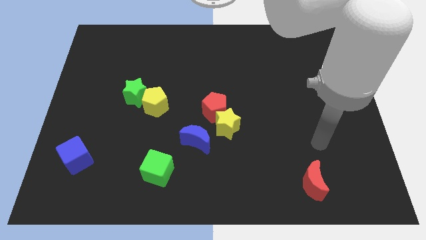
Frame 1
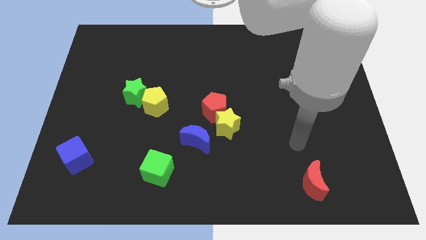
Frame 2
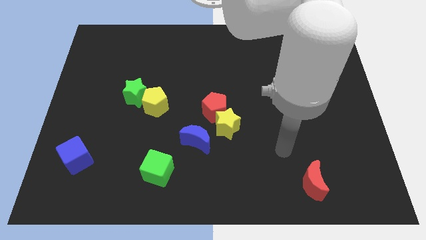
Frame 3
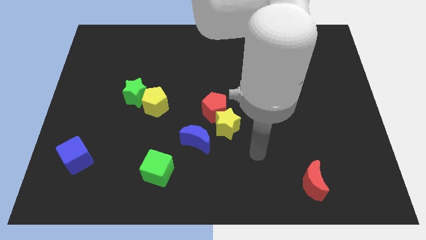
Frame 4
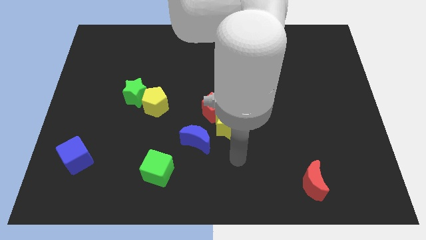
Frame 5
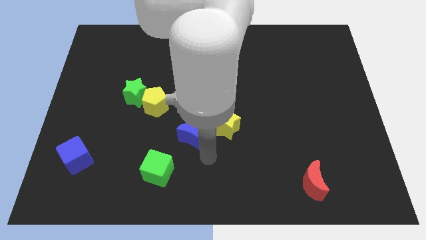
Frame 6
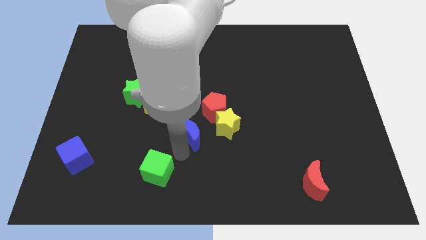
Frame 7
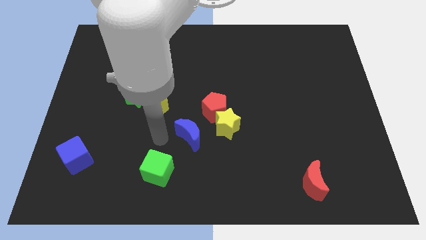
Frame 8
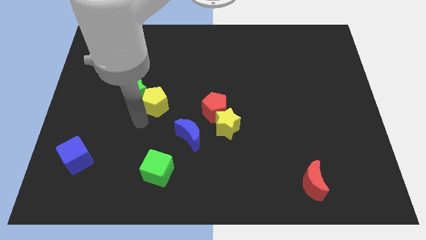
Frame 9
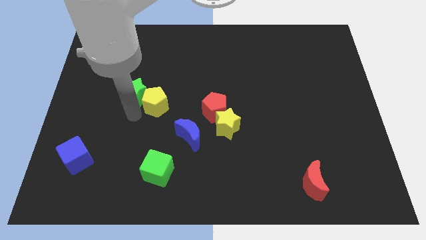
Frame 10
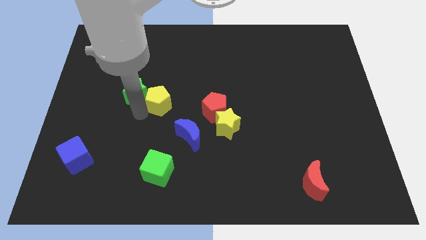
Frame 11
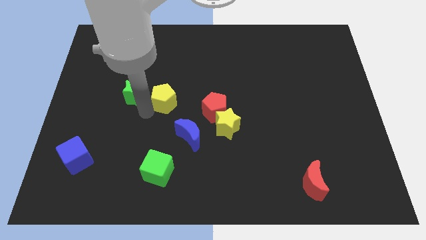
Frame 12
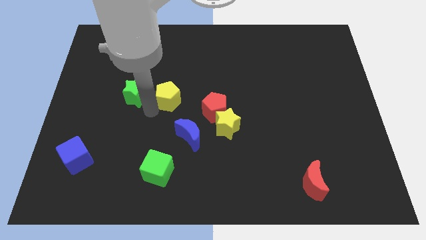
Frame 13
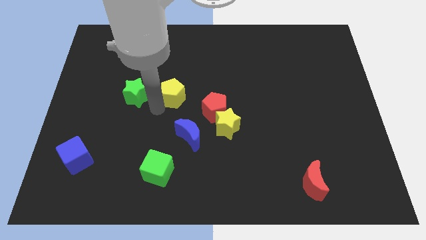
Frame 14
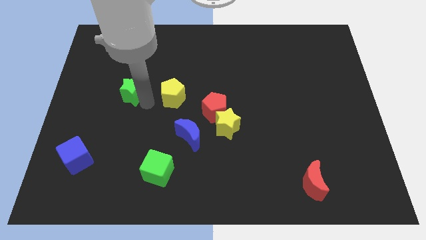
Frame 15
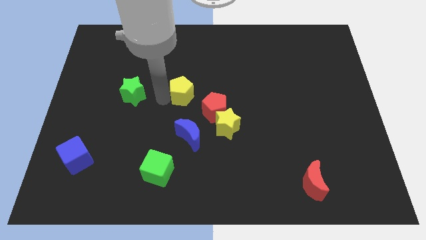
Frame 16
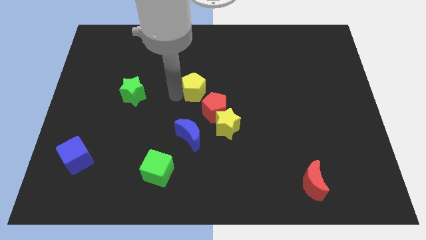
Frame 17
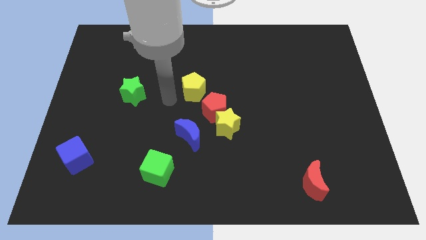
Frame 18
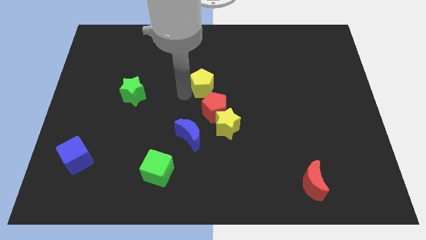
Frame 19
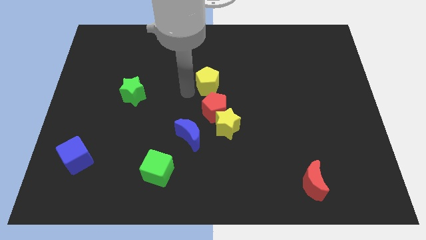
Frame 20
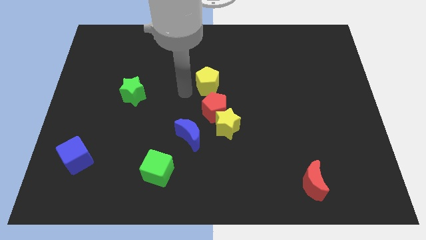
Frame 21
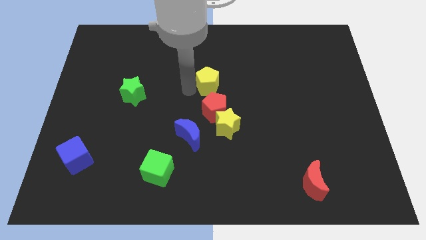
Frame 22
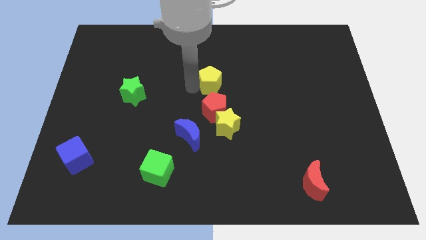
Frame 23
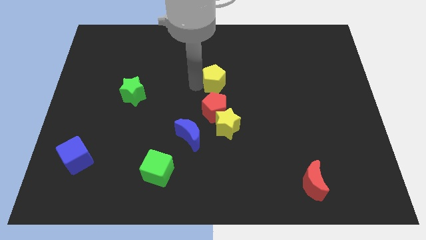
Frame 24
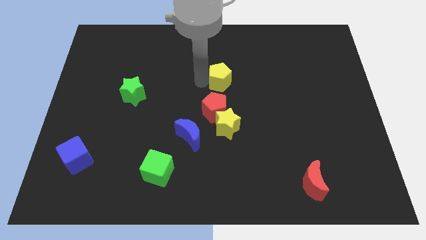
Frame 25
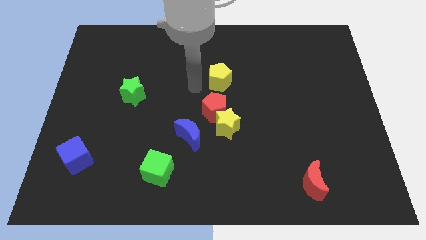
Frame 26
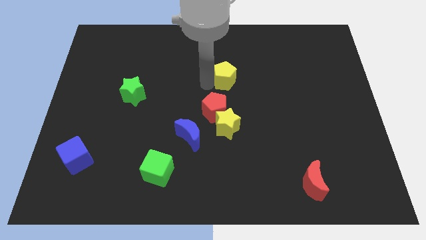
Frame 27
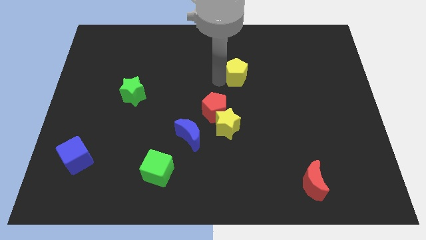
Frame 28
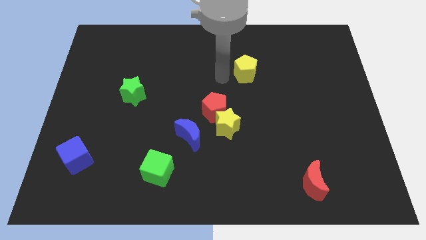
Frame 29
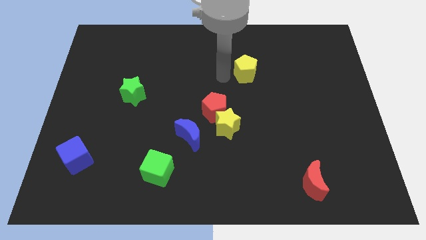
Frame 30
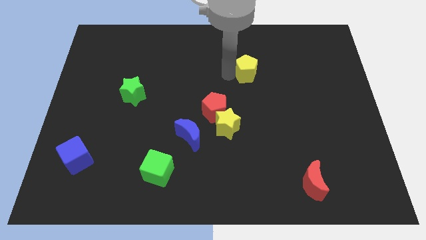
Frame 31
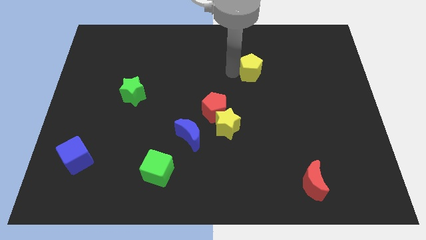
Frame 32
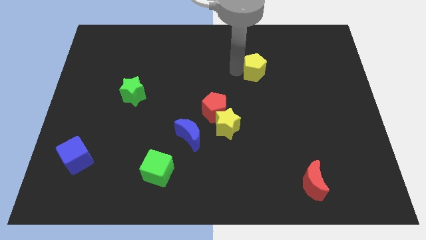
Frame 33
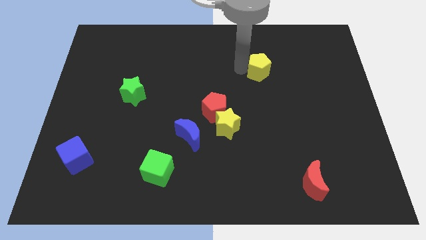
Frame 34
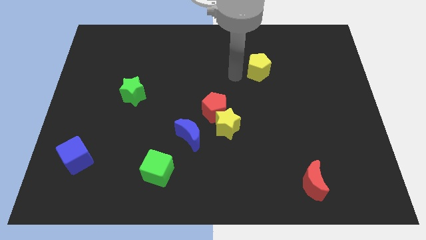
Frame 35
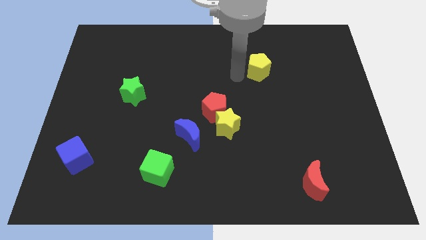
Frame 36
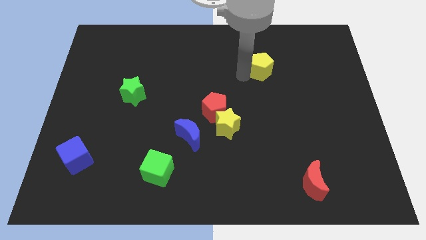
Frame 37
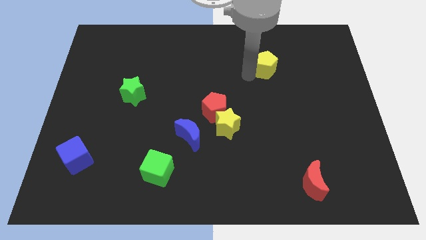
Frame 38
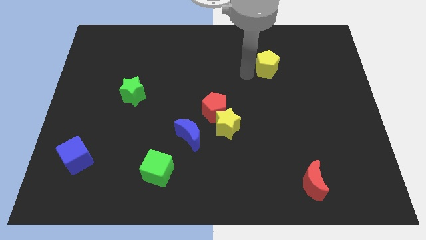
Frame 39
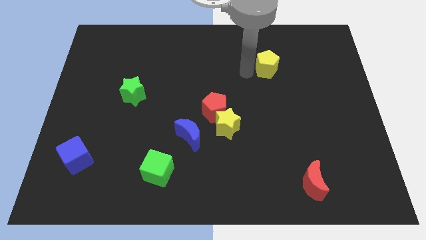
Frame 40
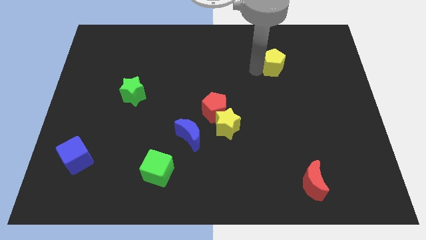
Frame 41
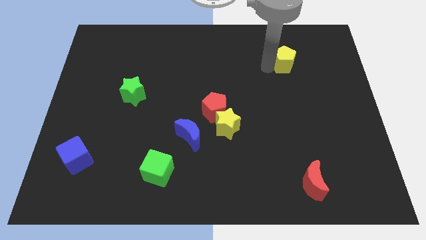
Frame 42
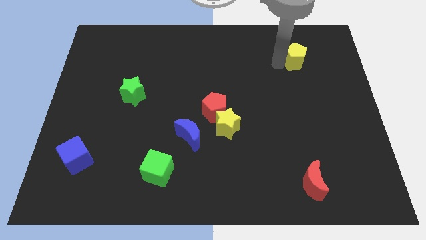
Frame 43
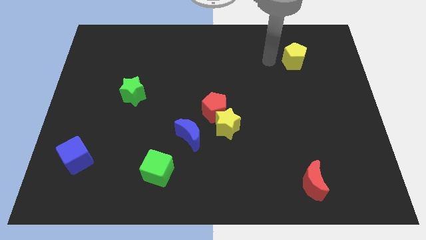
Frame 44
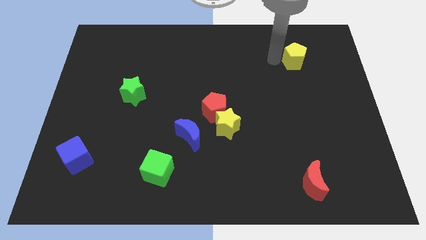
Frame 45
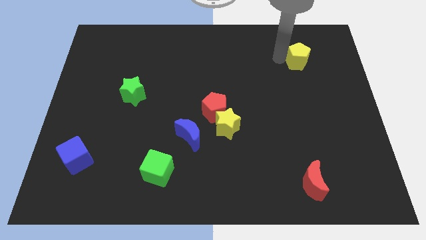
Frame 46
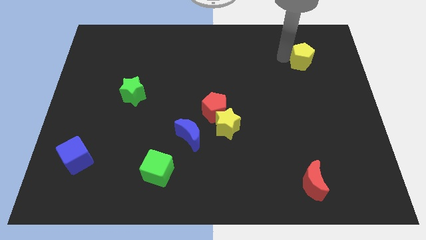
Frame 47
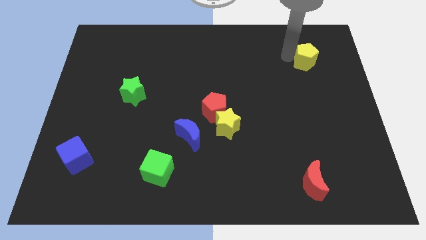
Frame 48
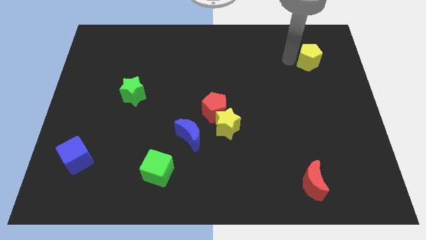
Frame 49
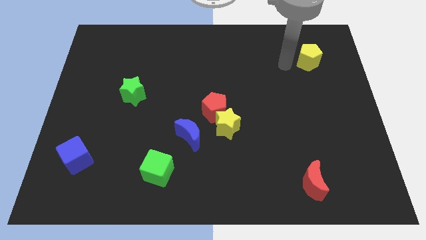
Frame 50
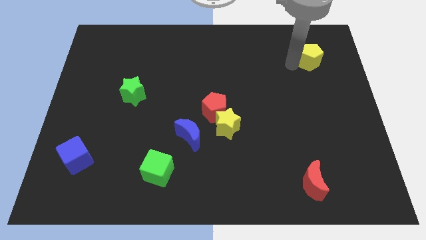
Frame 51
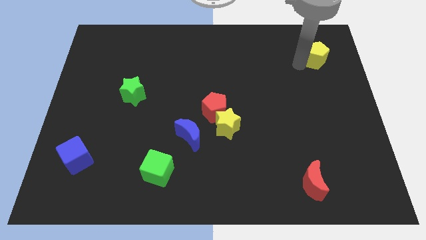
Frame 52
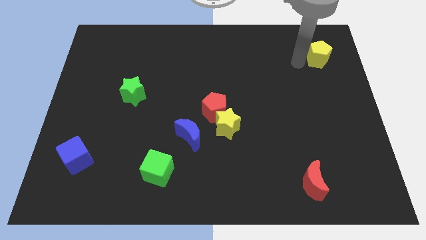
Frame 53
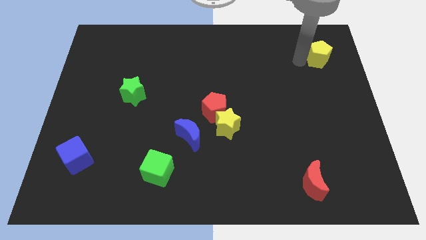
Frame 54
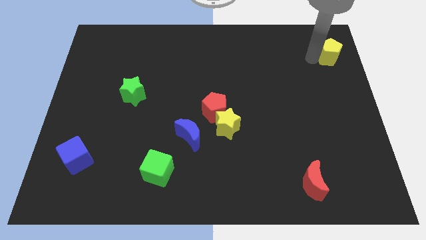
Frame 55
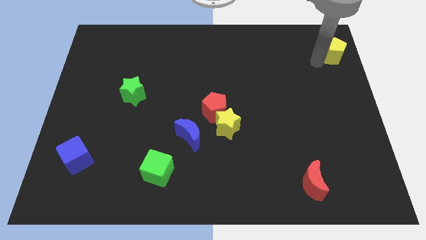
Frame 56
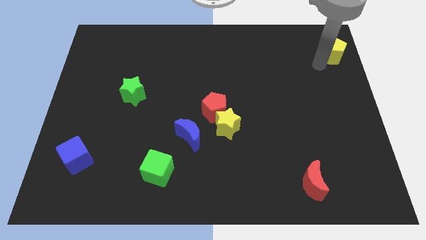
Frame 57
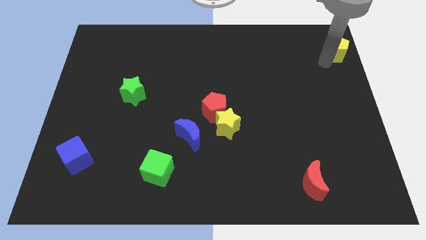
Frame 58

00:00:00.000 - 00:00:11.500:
push the yellow pentagon to the top right of the board

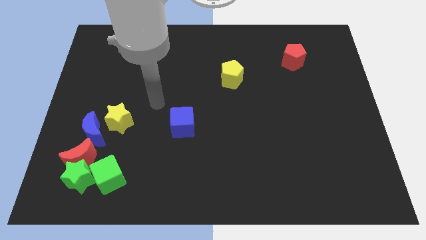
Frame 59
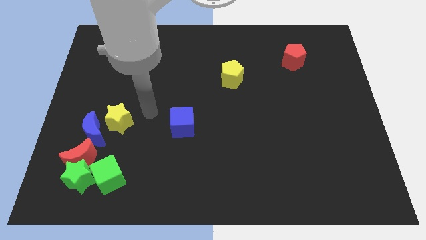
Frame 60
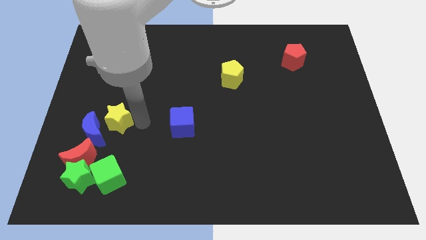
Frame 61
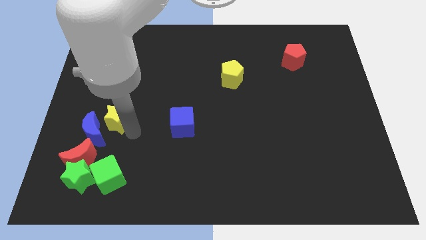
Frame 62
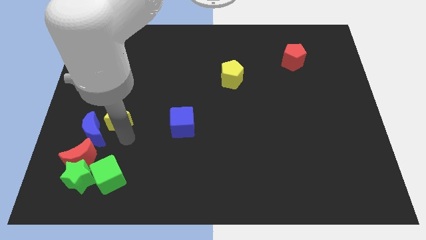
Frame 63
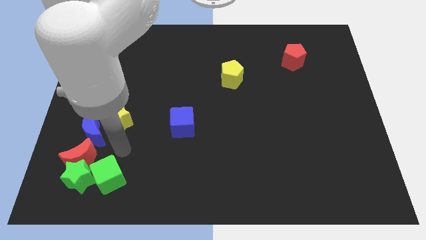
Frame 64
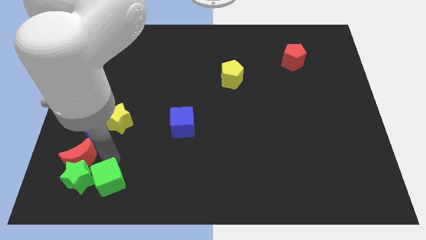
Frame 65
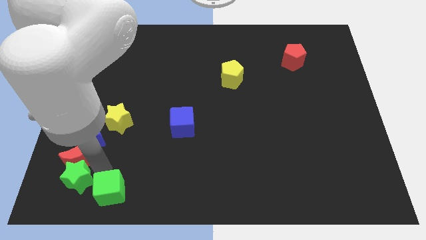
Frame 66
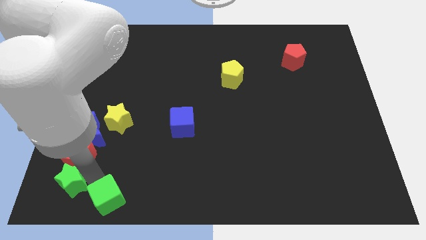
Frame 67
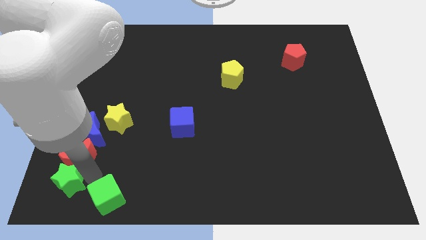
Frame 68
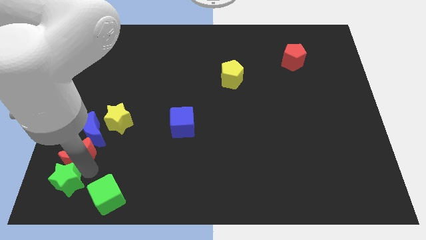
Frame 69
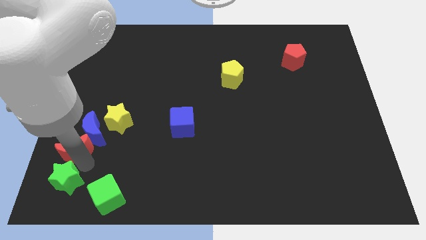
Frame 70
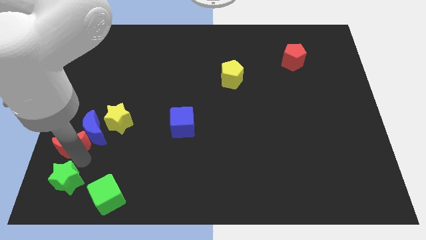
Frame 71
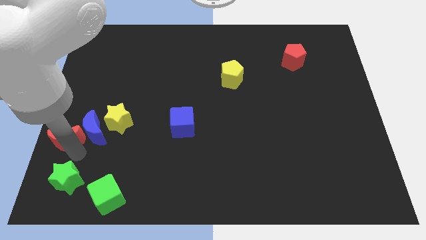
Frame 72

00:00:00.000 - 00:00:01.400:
slide the red moon to the center left
